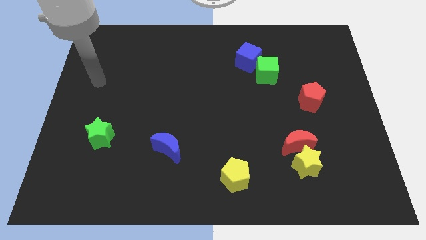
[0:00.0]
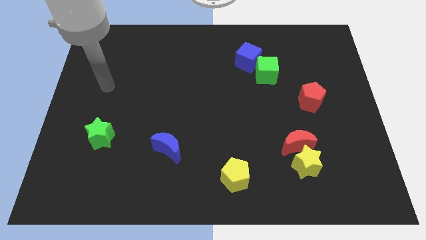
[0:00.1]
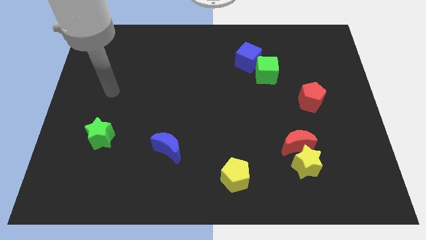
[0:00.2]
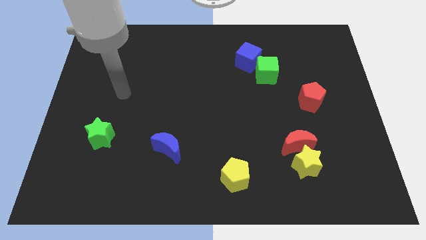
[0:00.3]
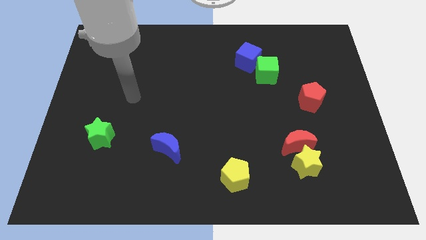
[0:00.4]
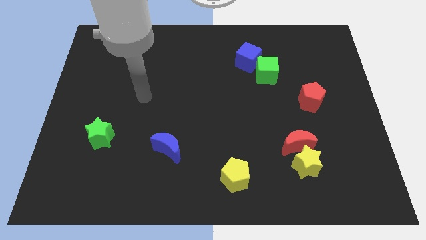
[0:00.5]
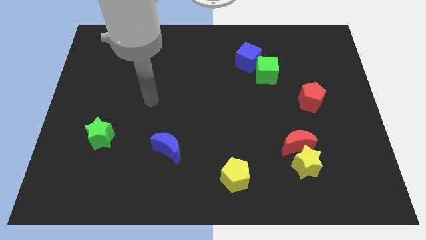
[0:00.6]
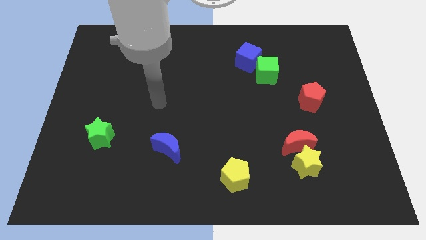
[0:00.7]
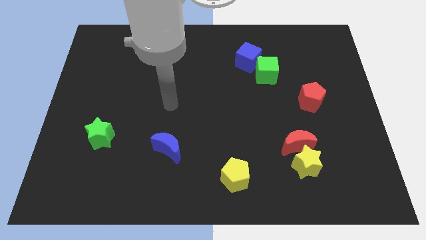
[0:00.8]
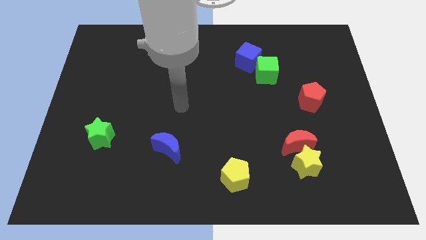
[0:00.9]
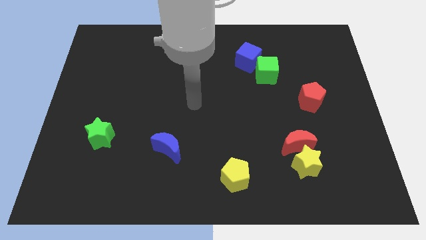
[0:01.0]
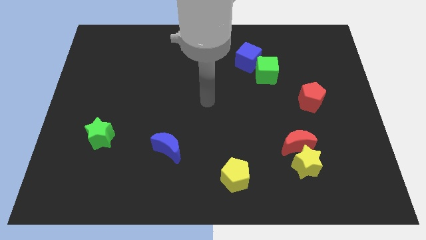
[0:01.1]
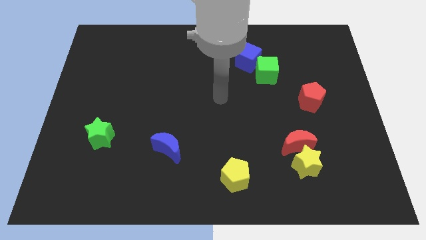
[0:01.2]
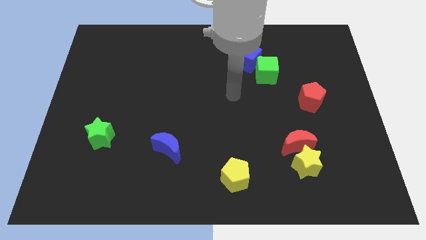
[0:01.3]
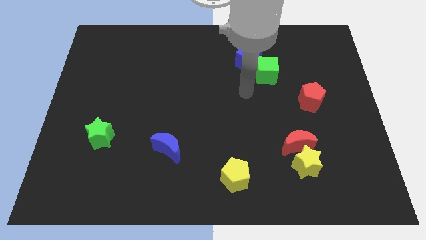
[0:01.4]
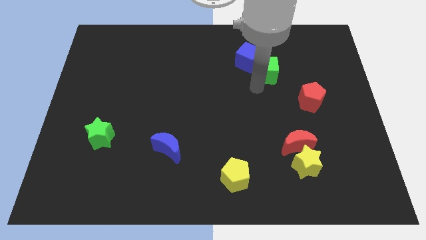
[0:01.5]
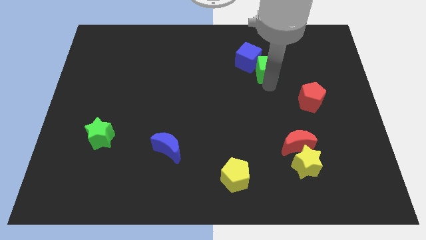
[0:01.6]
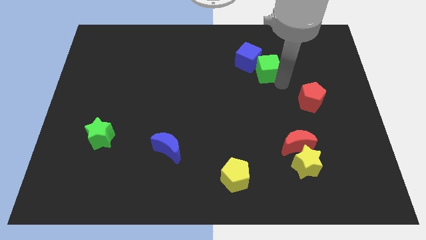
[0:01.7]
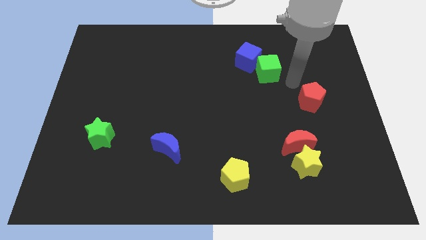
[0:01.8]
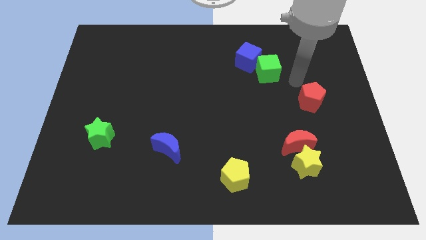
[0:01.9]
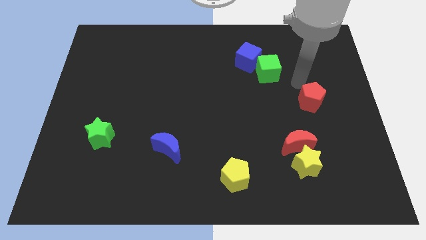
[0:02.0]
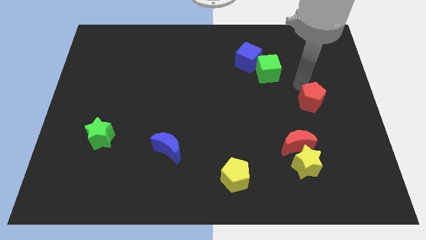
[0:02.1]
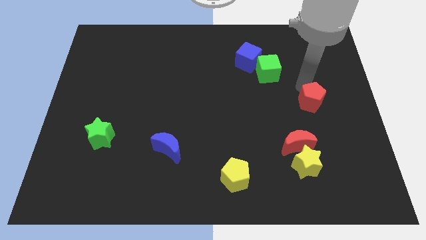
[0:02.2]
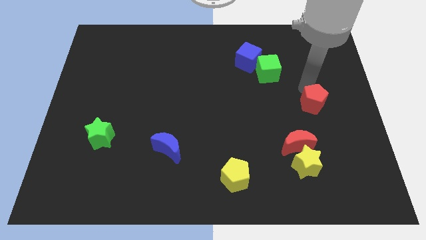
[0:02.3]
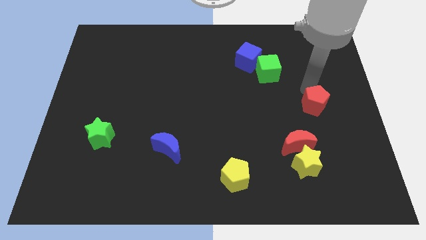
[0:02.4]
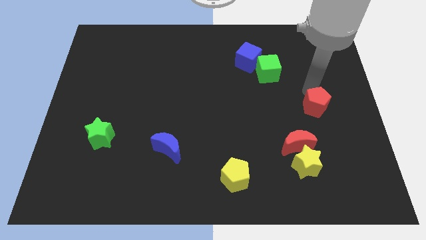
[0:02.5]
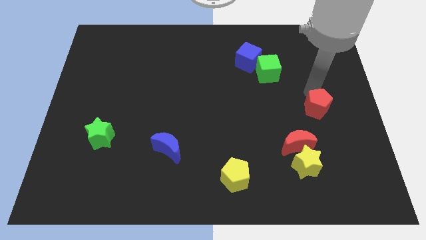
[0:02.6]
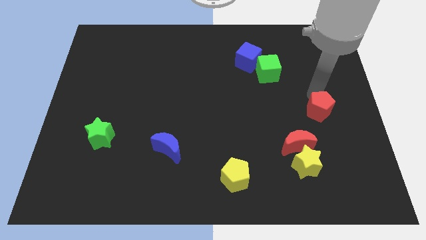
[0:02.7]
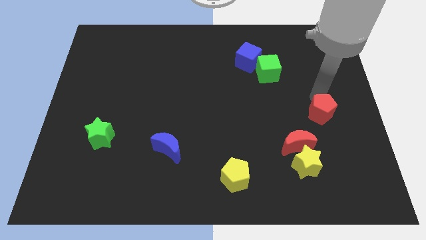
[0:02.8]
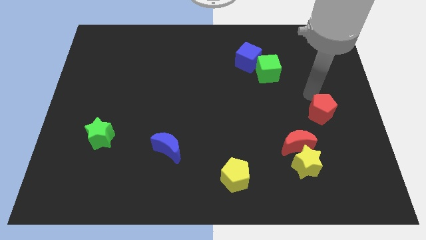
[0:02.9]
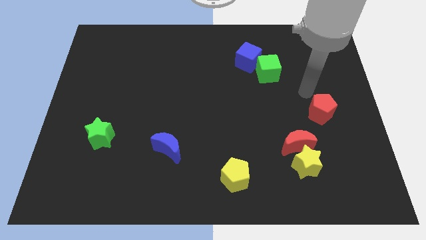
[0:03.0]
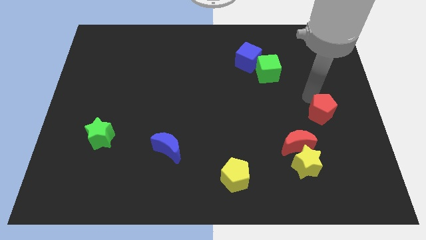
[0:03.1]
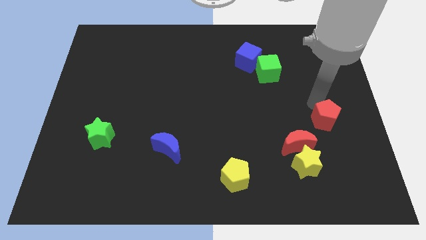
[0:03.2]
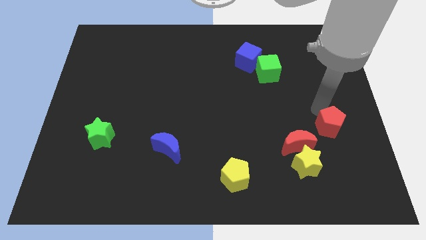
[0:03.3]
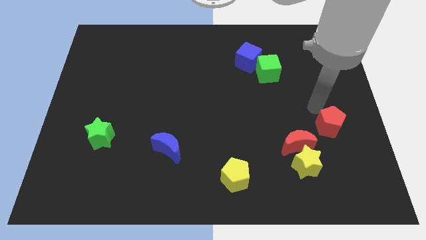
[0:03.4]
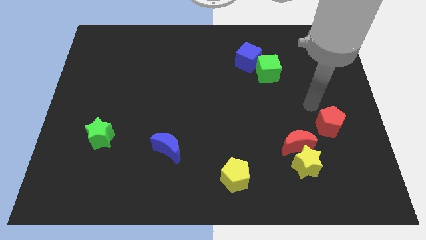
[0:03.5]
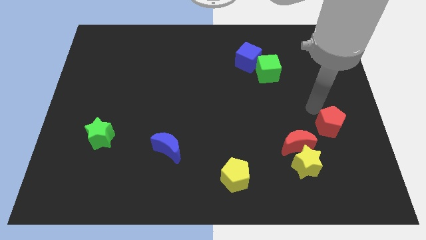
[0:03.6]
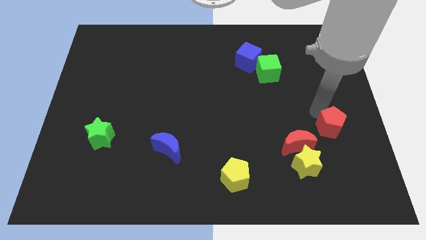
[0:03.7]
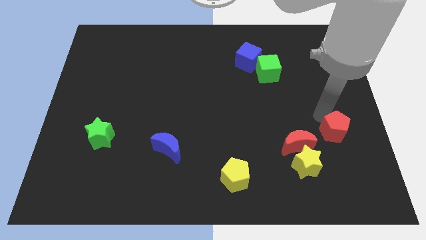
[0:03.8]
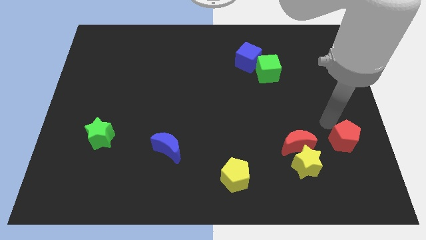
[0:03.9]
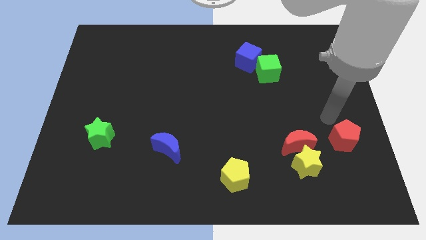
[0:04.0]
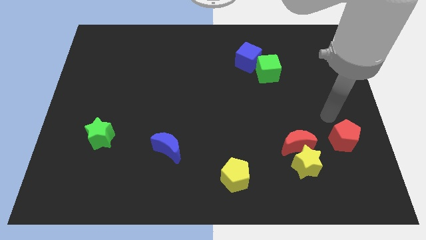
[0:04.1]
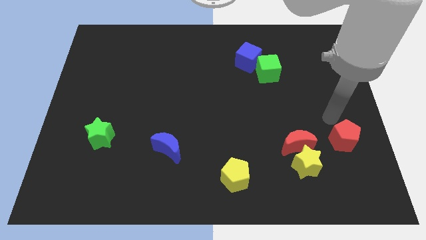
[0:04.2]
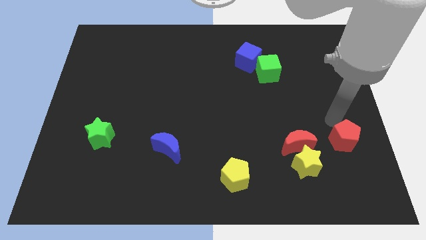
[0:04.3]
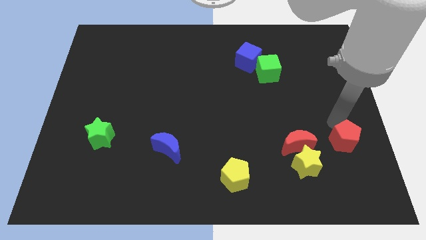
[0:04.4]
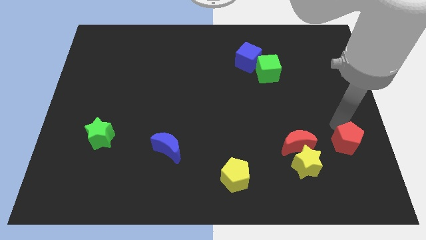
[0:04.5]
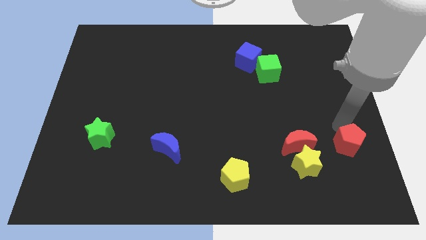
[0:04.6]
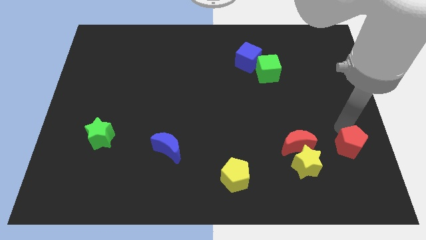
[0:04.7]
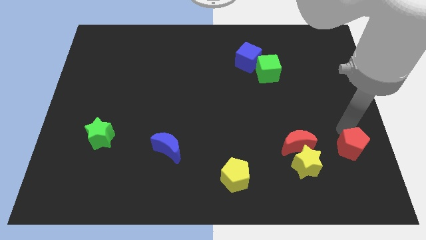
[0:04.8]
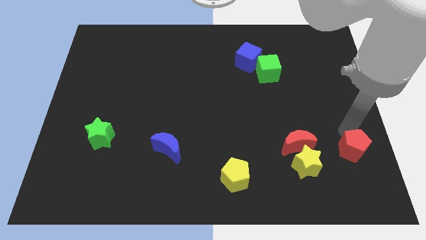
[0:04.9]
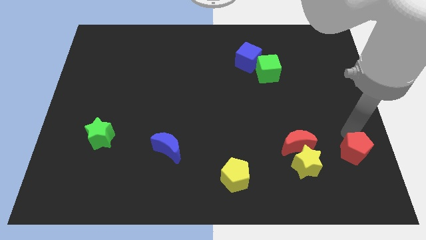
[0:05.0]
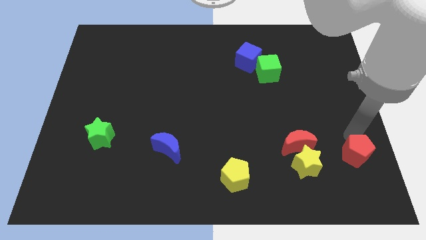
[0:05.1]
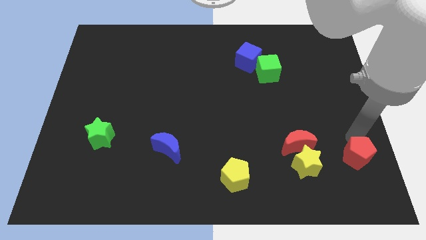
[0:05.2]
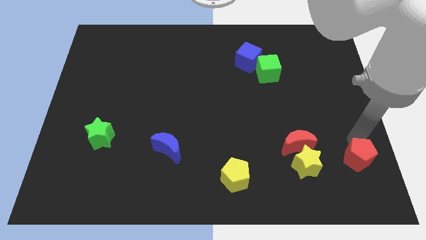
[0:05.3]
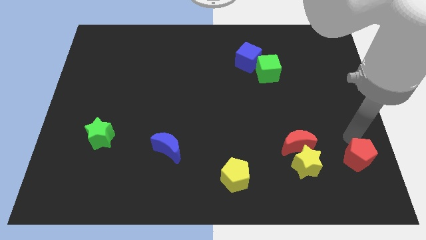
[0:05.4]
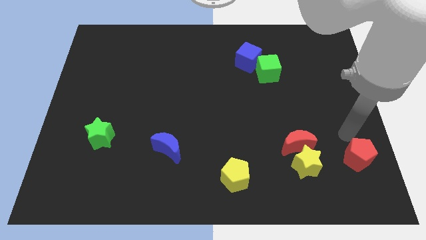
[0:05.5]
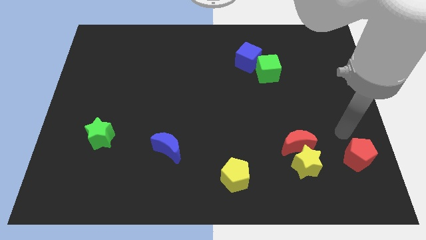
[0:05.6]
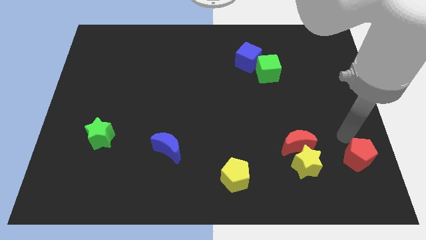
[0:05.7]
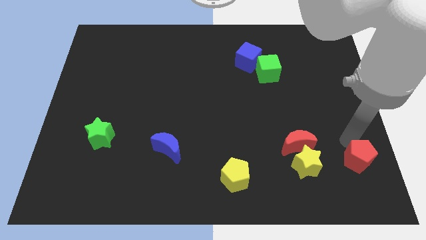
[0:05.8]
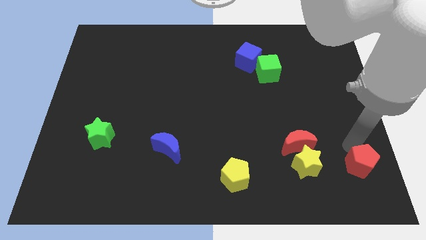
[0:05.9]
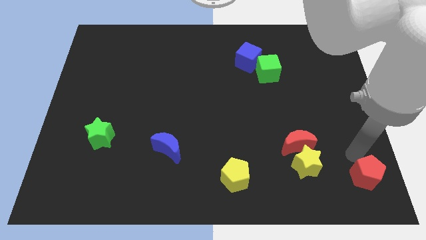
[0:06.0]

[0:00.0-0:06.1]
move the red pentagon to the bottom right corner

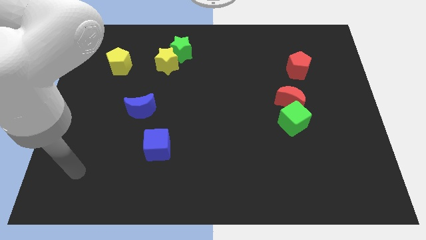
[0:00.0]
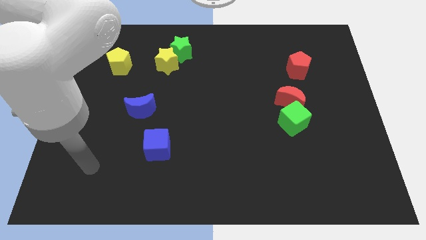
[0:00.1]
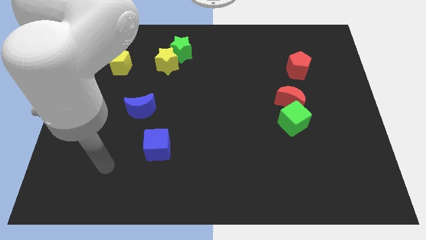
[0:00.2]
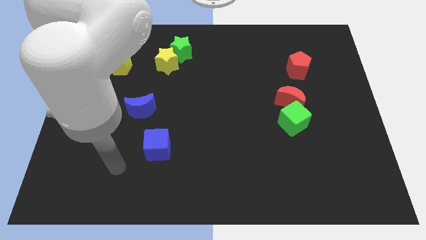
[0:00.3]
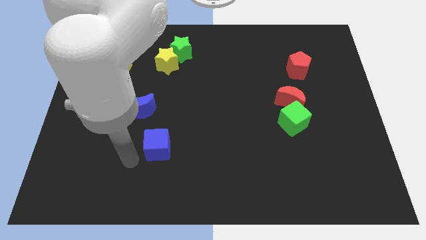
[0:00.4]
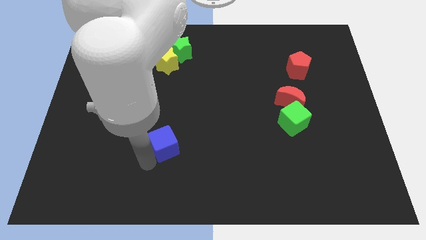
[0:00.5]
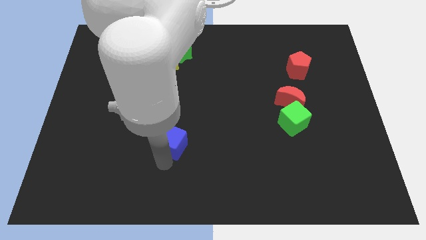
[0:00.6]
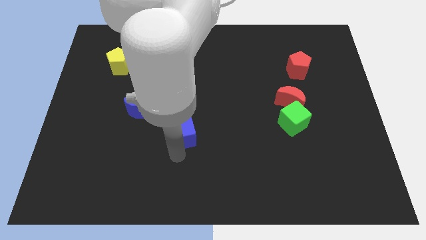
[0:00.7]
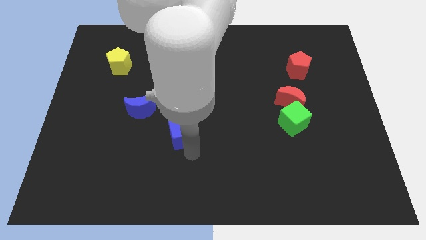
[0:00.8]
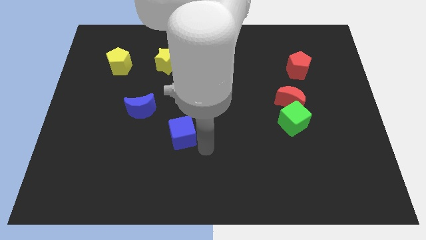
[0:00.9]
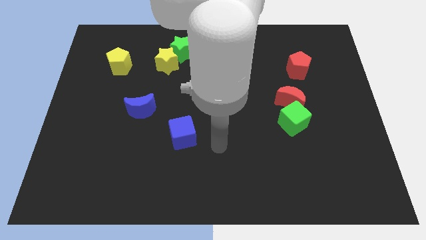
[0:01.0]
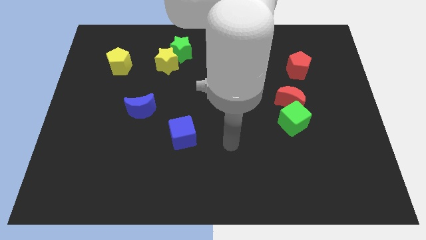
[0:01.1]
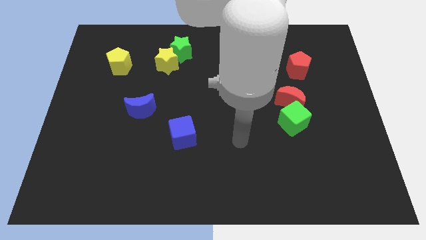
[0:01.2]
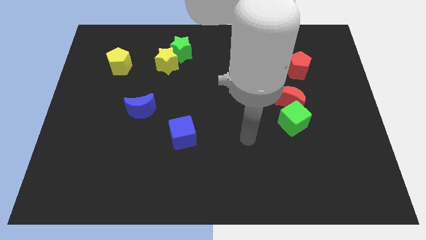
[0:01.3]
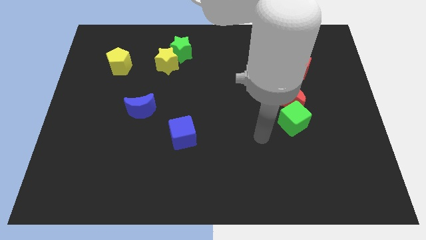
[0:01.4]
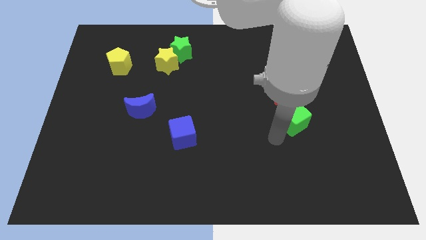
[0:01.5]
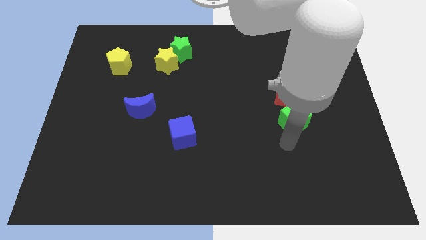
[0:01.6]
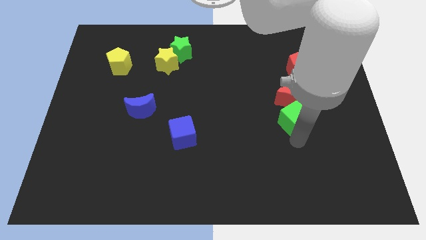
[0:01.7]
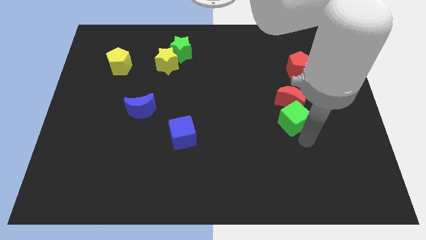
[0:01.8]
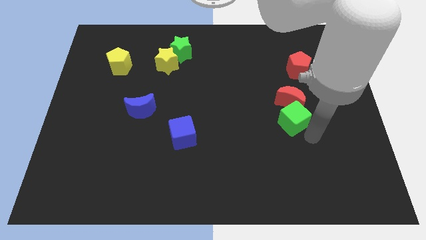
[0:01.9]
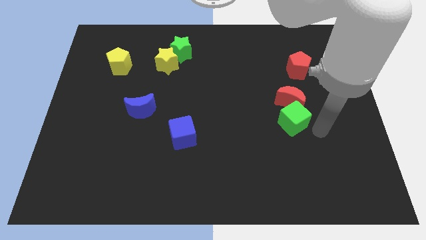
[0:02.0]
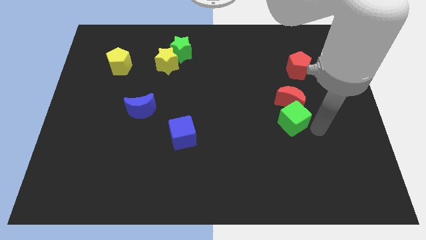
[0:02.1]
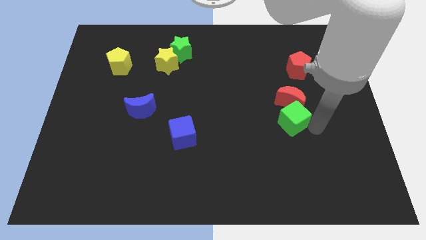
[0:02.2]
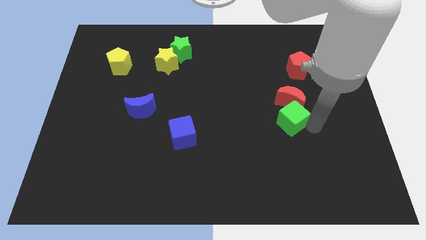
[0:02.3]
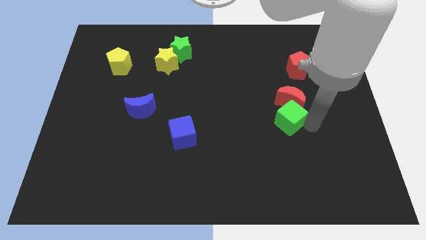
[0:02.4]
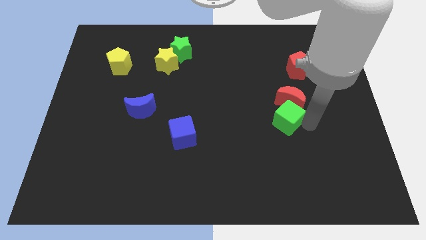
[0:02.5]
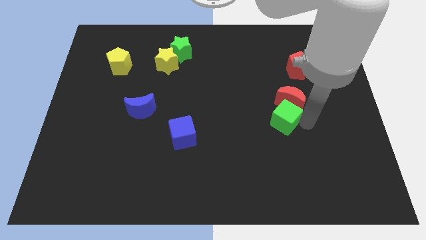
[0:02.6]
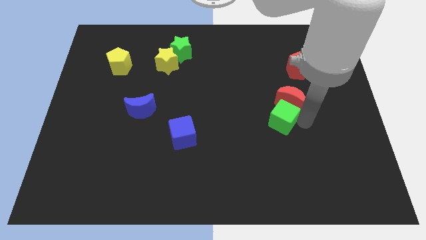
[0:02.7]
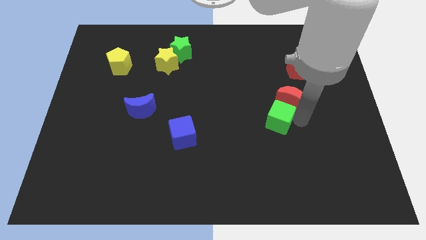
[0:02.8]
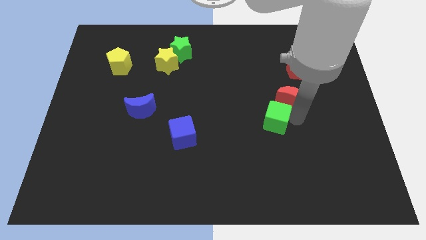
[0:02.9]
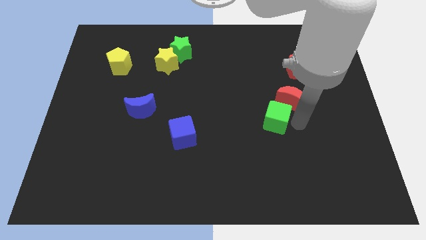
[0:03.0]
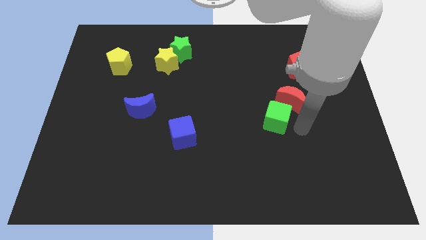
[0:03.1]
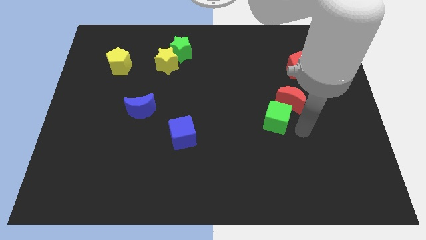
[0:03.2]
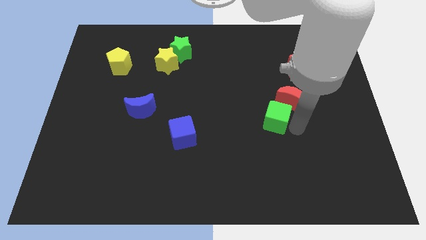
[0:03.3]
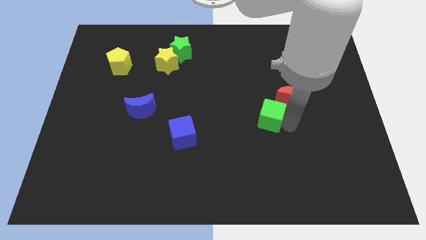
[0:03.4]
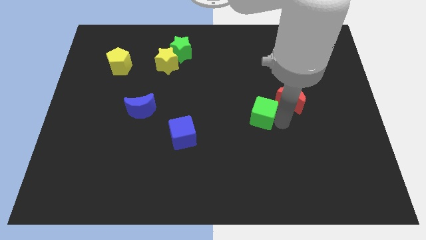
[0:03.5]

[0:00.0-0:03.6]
move the green cube to the middle of the board
